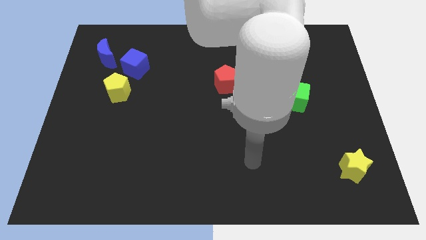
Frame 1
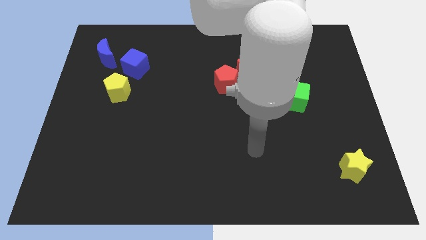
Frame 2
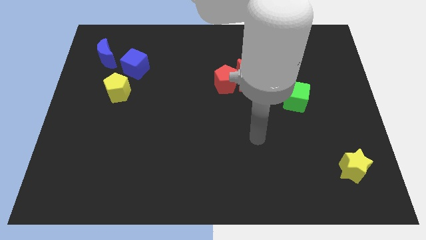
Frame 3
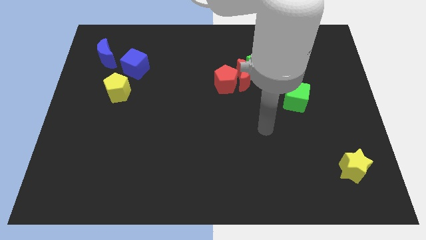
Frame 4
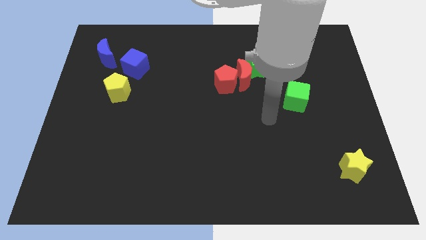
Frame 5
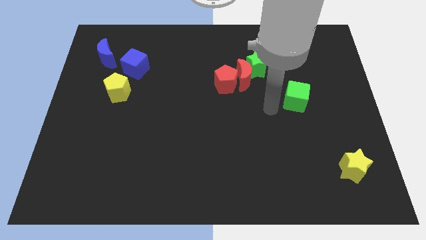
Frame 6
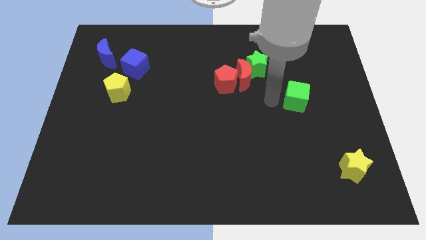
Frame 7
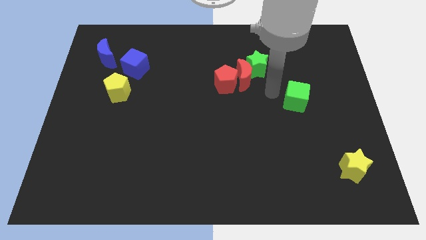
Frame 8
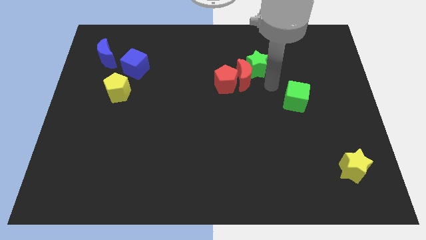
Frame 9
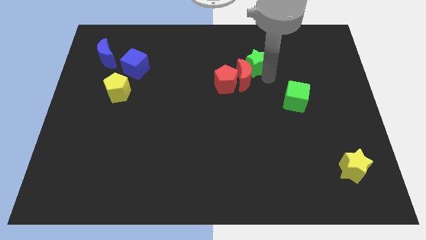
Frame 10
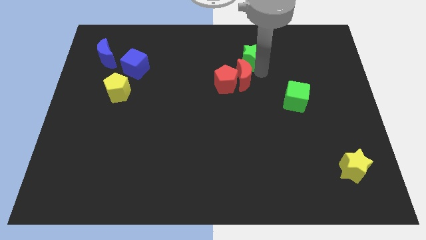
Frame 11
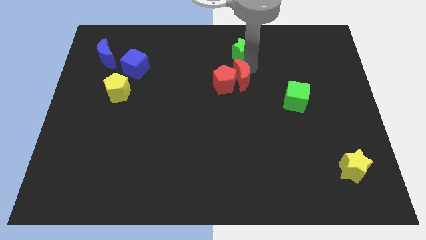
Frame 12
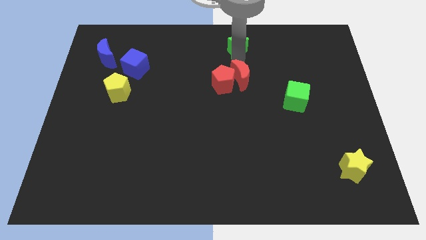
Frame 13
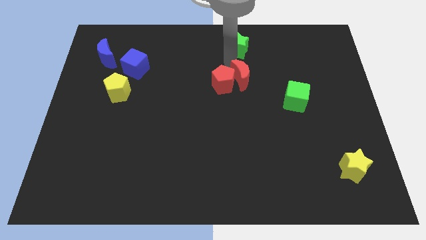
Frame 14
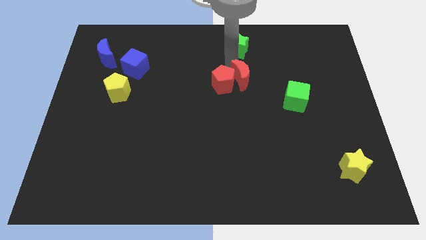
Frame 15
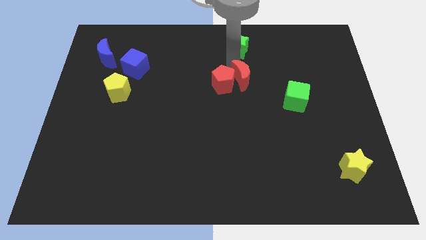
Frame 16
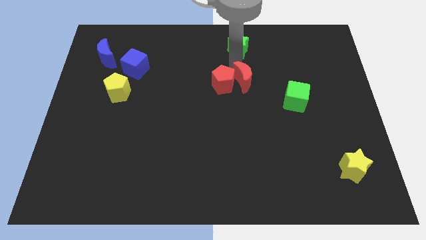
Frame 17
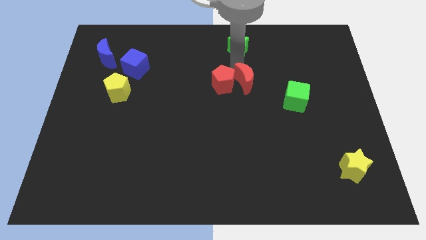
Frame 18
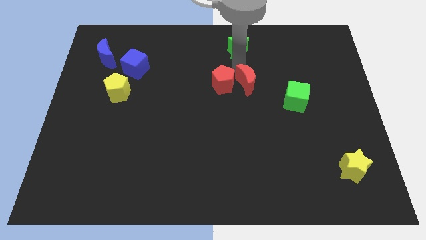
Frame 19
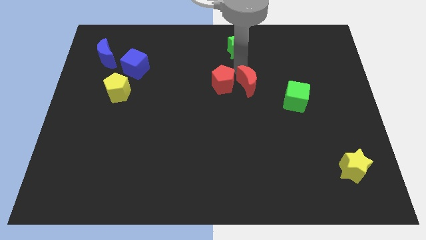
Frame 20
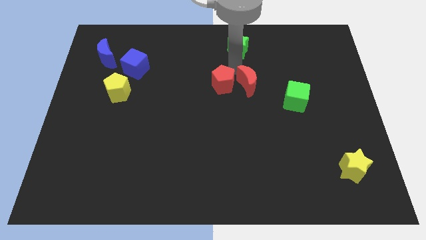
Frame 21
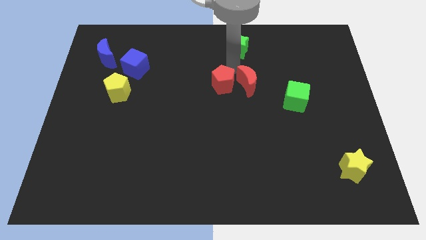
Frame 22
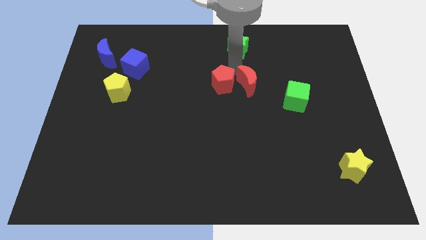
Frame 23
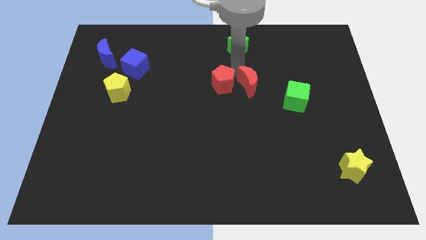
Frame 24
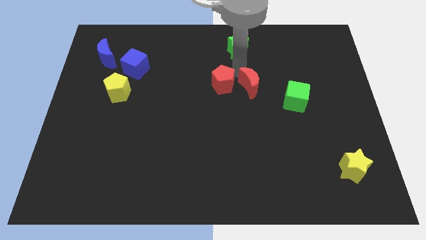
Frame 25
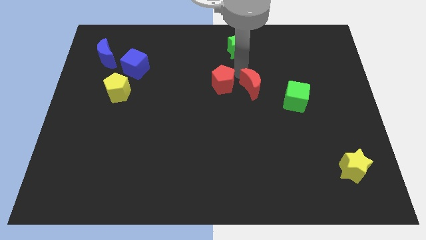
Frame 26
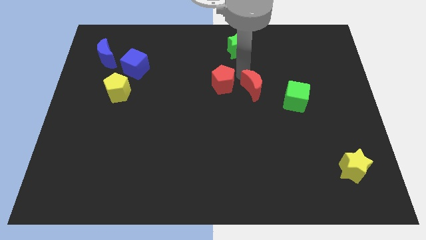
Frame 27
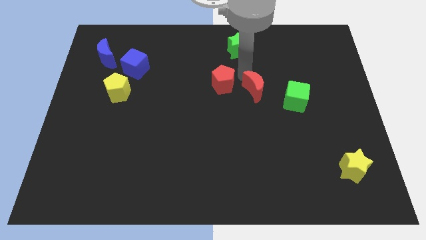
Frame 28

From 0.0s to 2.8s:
move the red moon away from the green star and red pentagon

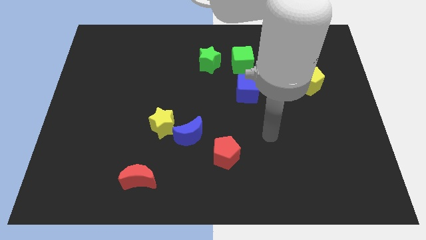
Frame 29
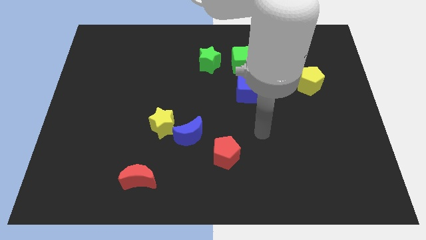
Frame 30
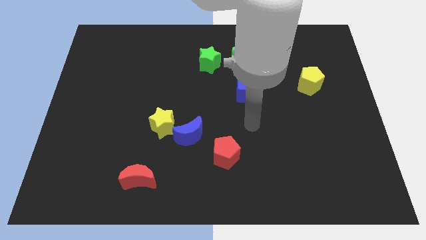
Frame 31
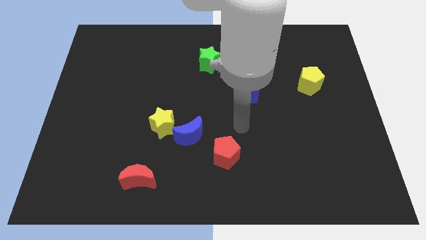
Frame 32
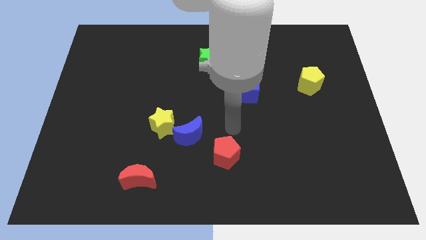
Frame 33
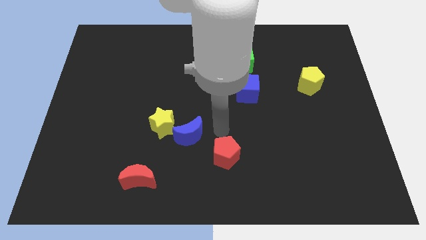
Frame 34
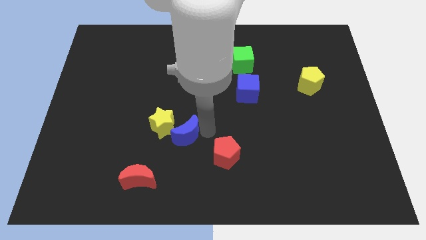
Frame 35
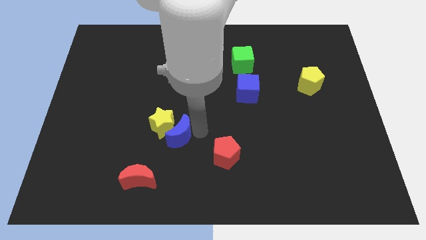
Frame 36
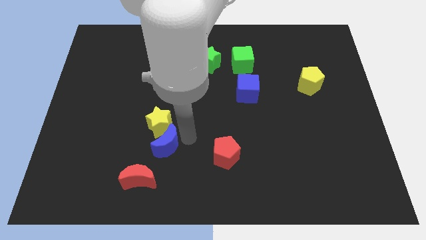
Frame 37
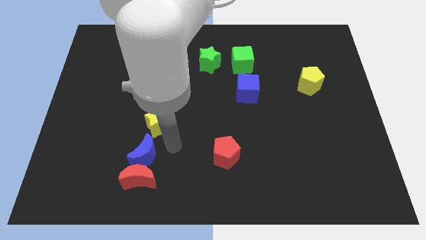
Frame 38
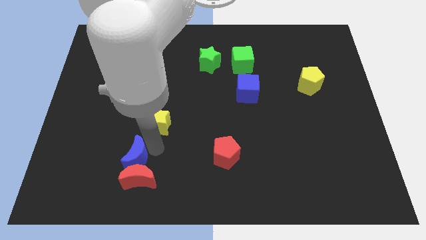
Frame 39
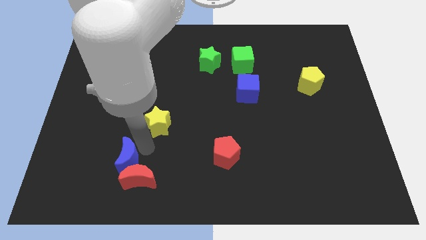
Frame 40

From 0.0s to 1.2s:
pull the yellow star apart from the blue moon

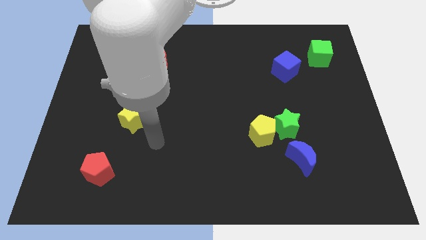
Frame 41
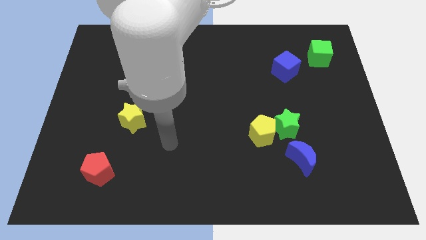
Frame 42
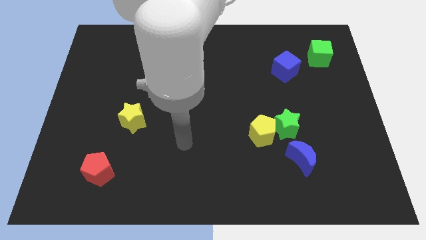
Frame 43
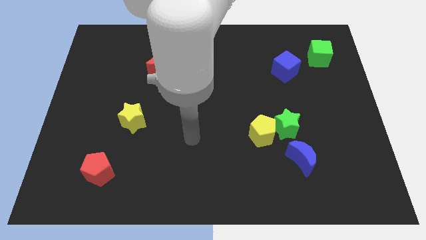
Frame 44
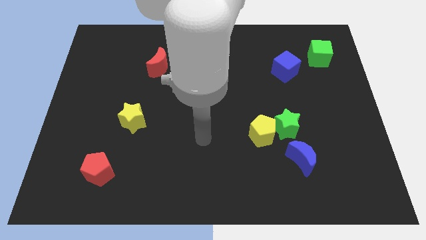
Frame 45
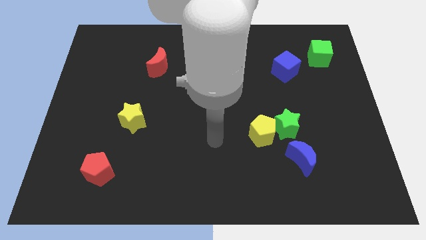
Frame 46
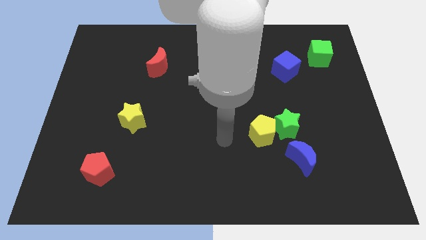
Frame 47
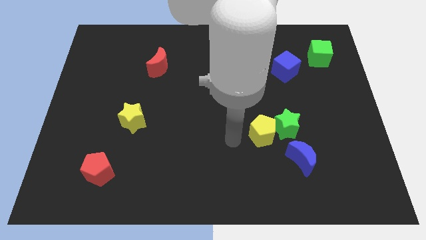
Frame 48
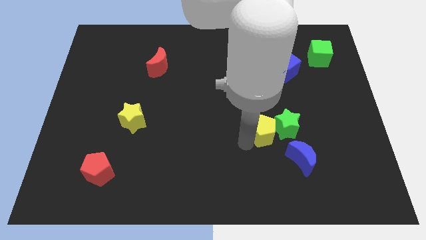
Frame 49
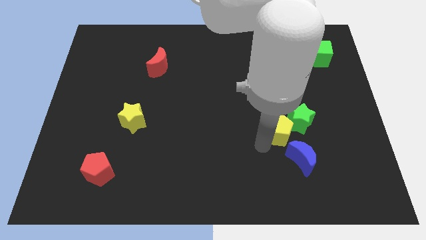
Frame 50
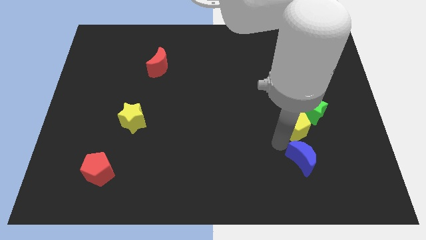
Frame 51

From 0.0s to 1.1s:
move the green star away from the yellow pentagon and blue moon

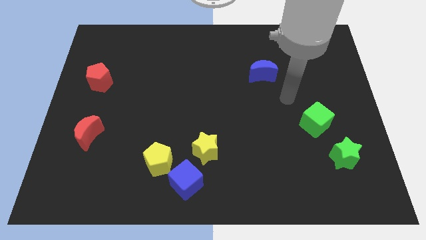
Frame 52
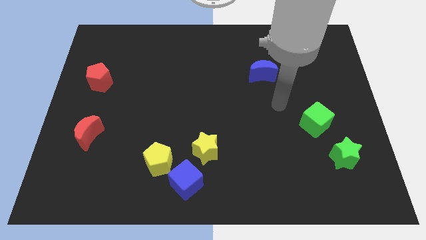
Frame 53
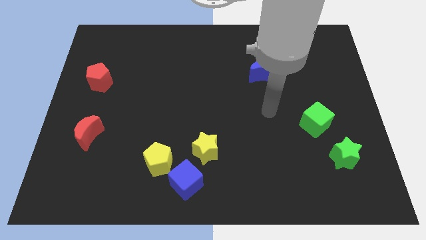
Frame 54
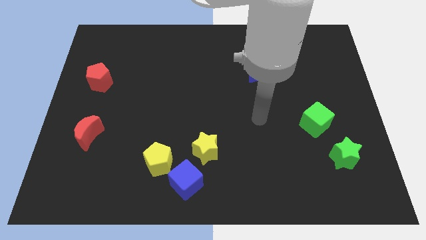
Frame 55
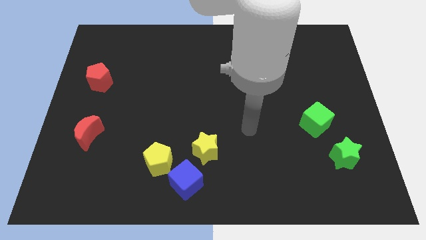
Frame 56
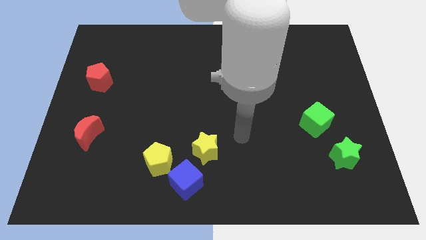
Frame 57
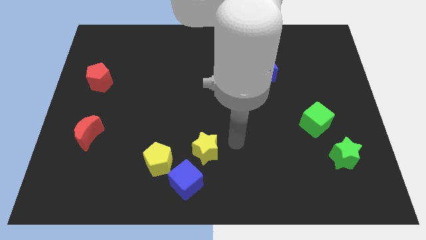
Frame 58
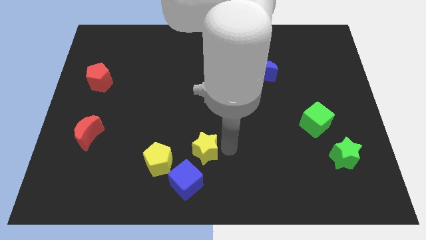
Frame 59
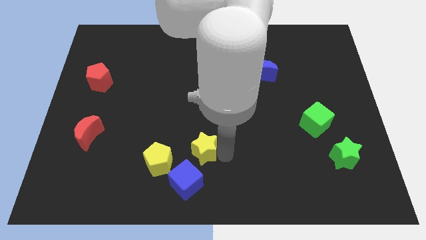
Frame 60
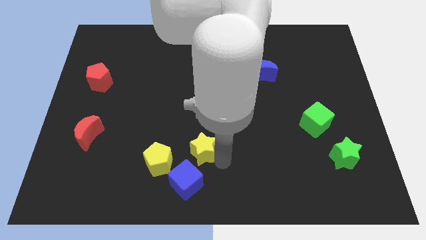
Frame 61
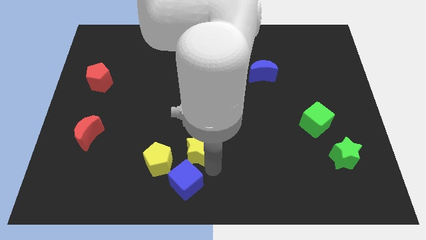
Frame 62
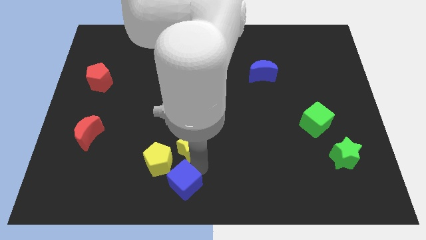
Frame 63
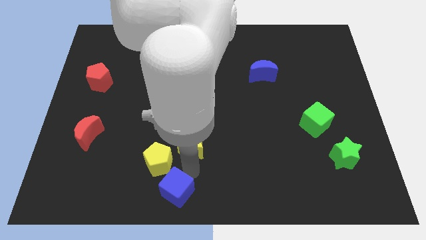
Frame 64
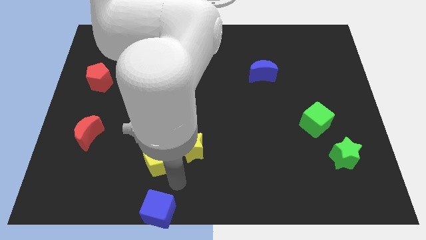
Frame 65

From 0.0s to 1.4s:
move the yellow pentagon away from the blue cube

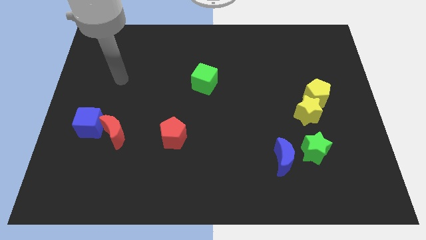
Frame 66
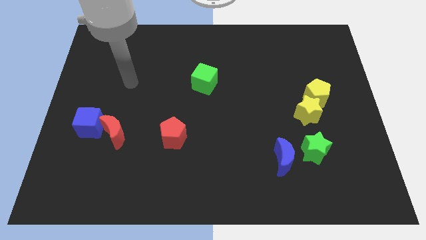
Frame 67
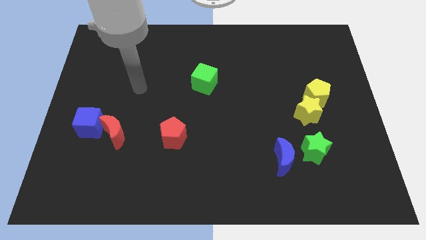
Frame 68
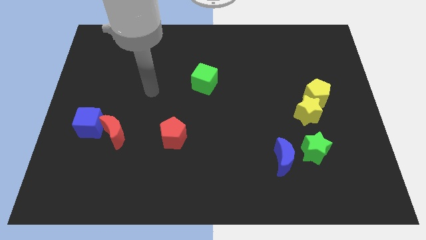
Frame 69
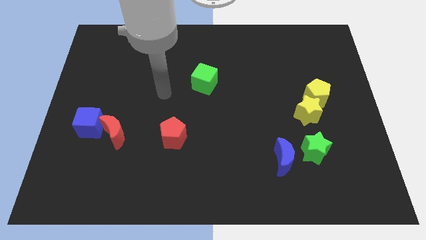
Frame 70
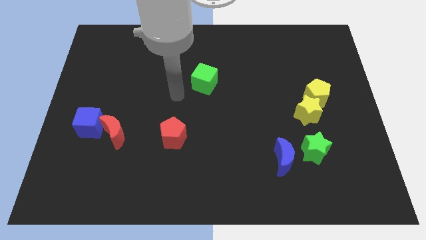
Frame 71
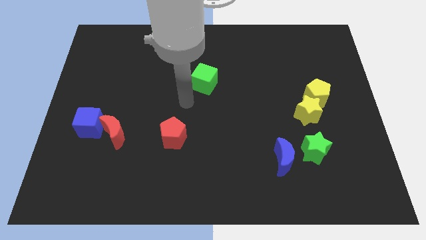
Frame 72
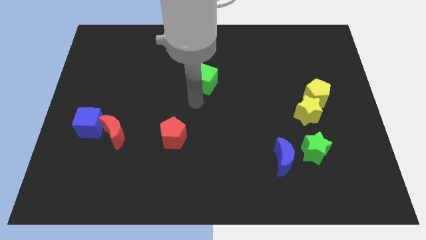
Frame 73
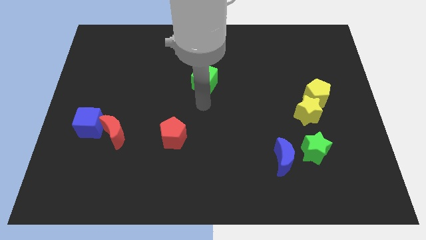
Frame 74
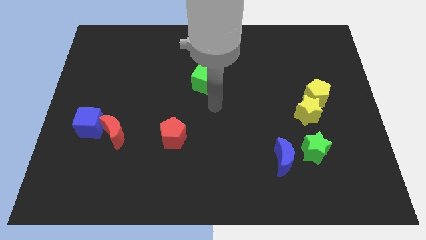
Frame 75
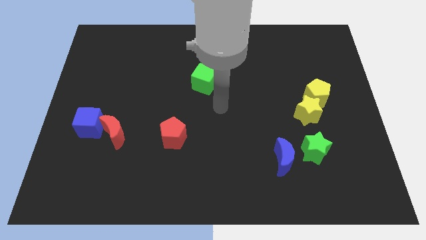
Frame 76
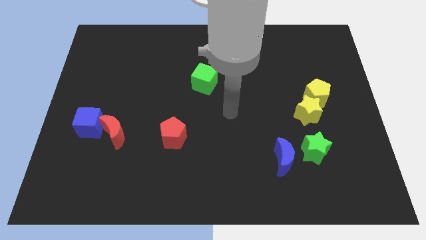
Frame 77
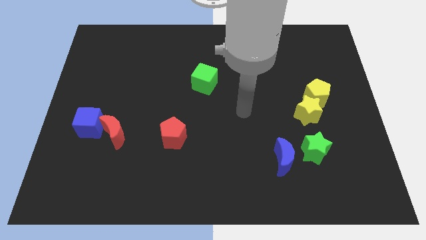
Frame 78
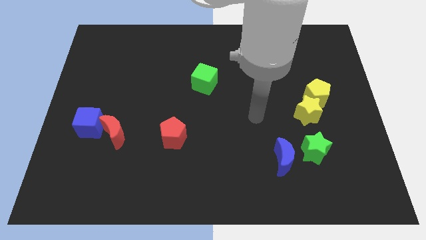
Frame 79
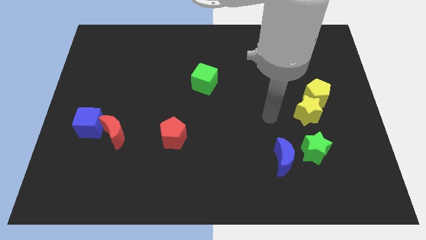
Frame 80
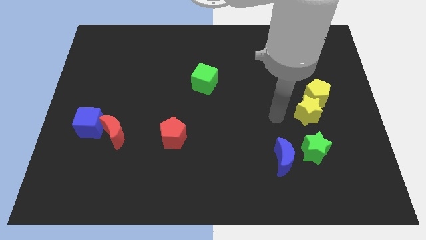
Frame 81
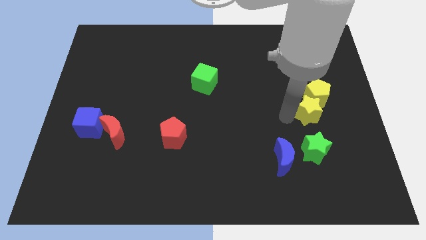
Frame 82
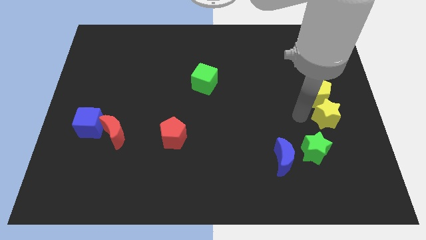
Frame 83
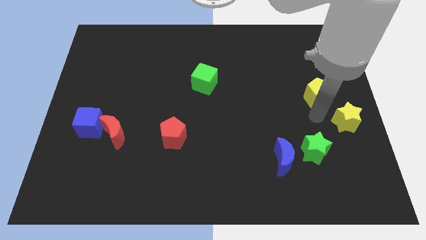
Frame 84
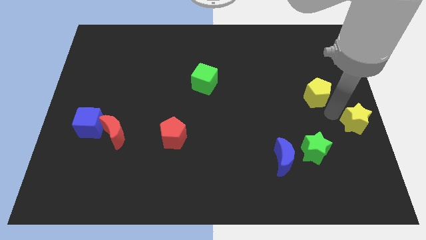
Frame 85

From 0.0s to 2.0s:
separate the yellow pentagon from the yellow star

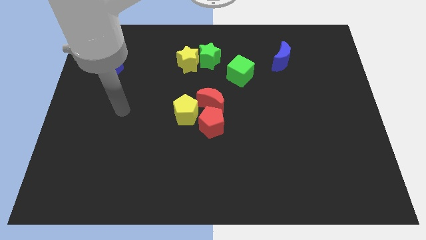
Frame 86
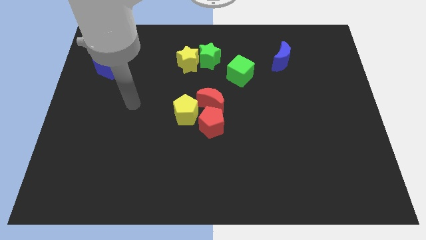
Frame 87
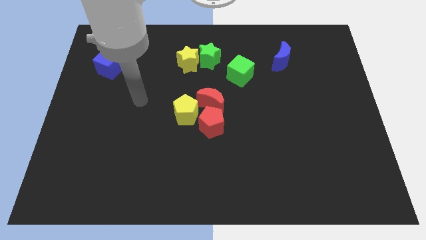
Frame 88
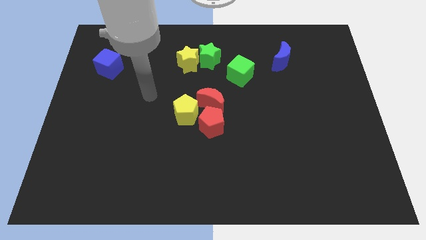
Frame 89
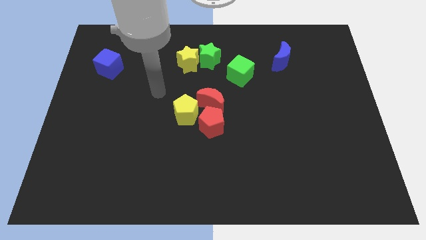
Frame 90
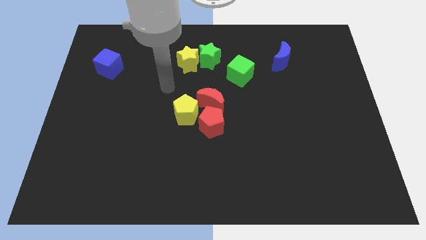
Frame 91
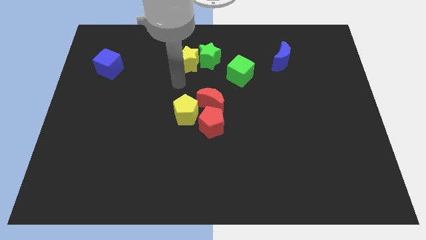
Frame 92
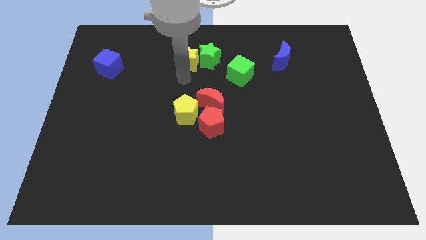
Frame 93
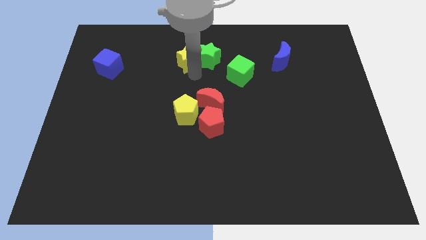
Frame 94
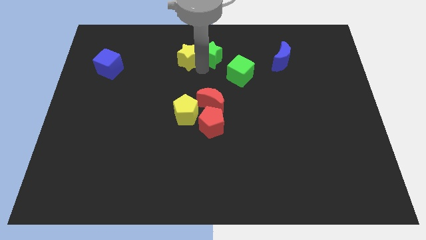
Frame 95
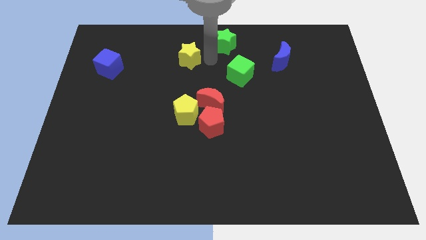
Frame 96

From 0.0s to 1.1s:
pull the yellow star apart from the green star
